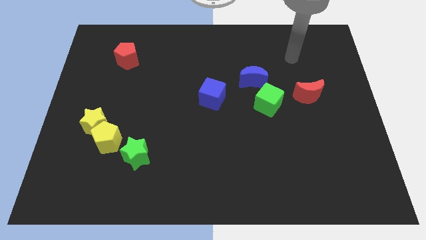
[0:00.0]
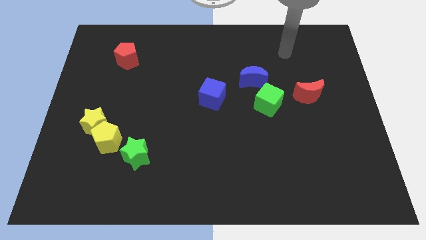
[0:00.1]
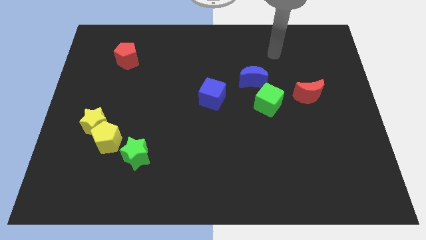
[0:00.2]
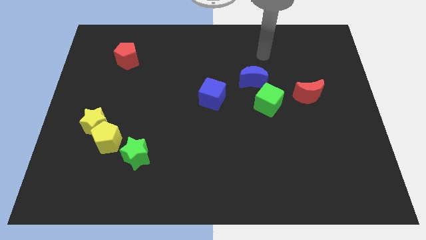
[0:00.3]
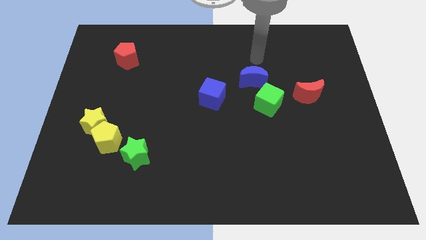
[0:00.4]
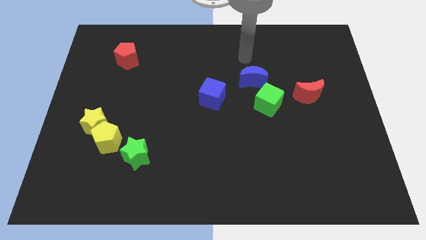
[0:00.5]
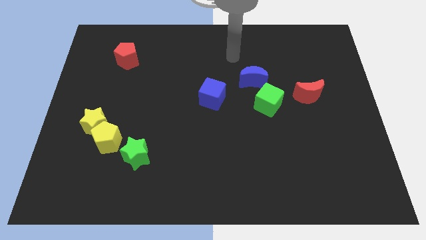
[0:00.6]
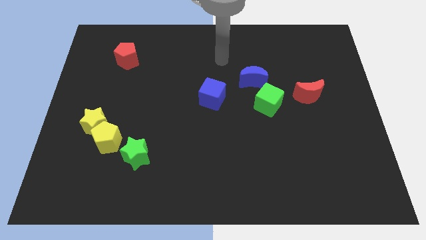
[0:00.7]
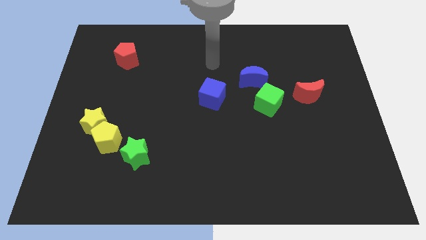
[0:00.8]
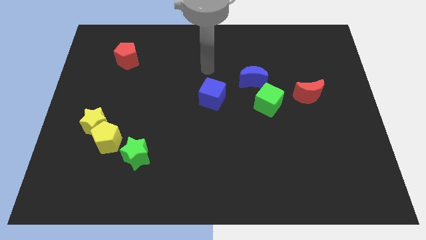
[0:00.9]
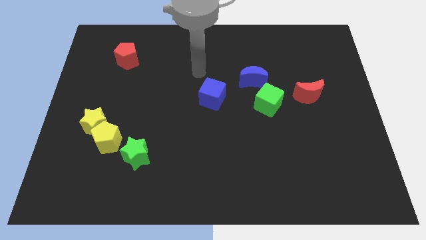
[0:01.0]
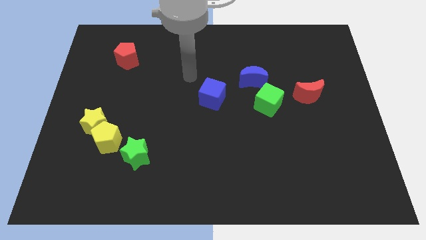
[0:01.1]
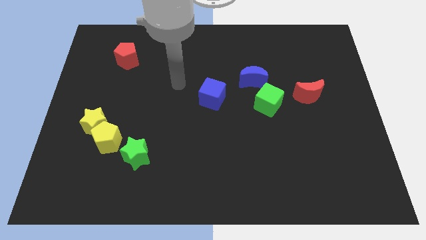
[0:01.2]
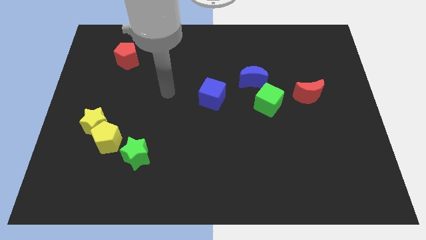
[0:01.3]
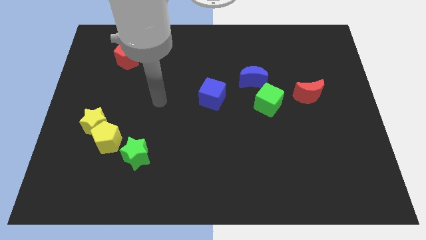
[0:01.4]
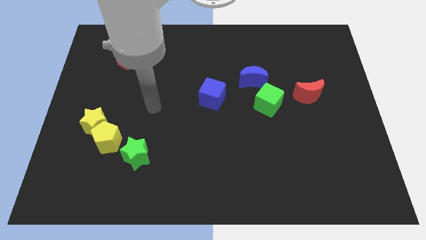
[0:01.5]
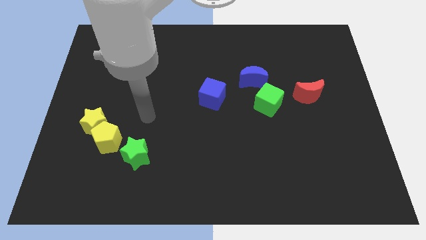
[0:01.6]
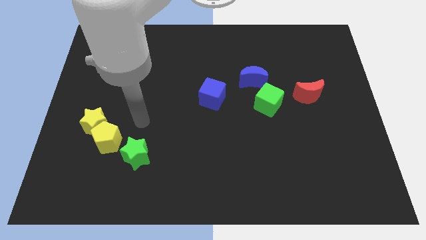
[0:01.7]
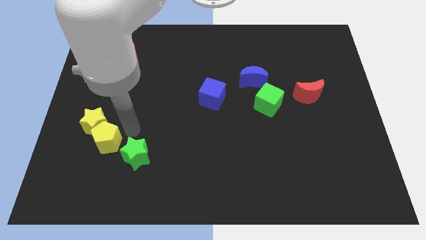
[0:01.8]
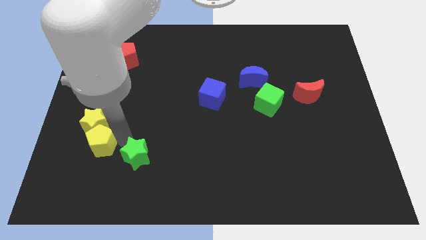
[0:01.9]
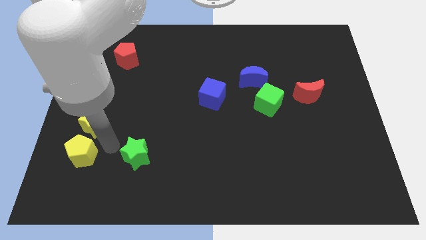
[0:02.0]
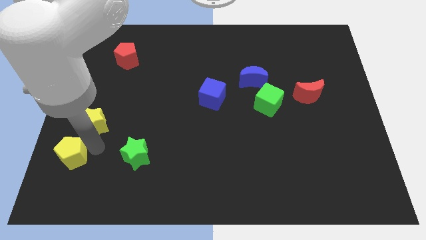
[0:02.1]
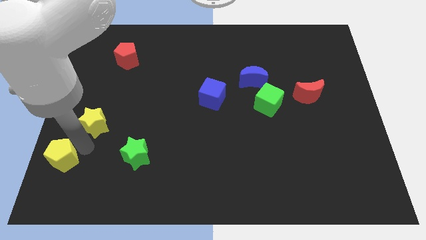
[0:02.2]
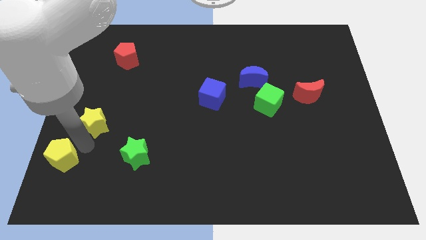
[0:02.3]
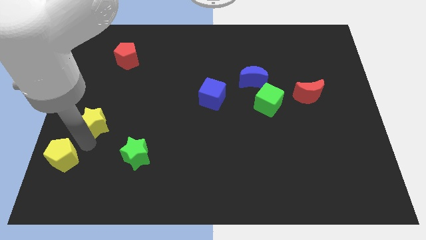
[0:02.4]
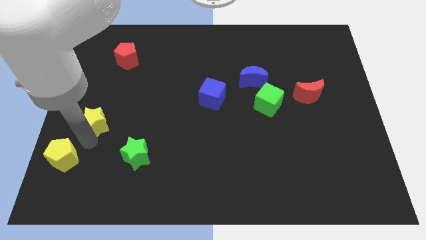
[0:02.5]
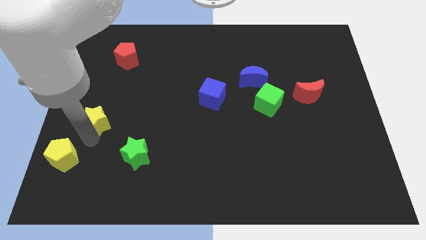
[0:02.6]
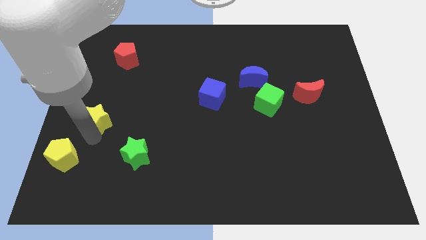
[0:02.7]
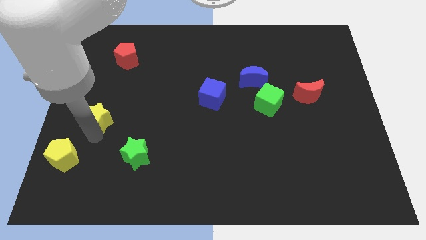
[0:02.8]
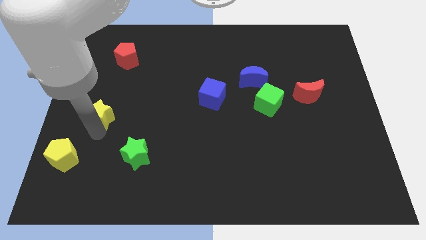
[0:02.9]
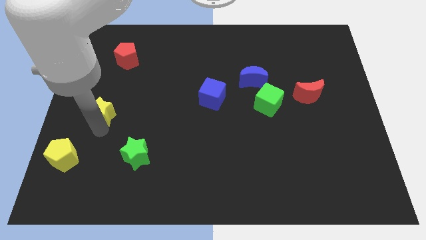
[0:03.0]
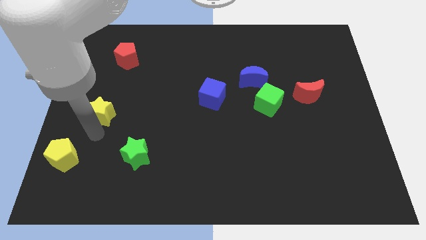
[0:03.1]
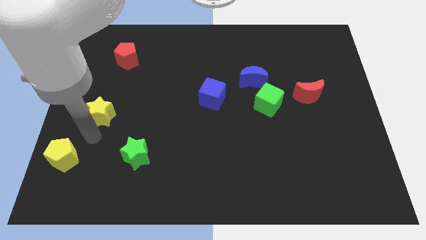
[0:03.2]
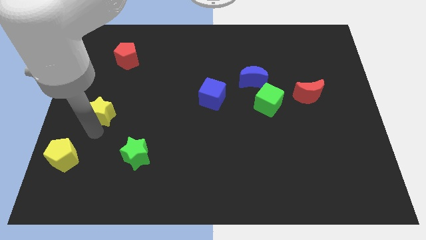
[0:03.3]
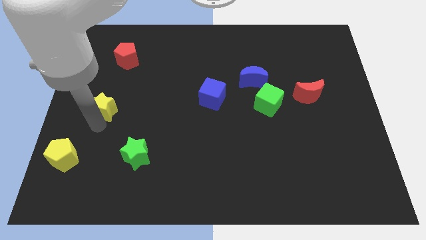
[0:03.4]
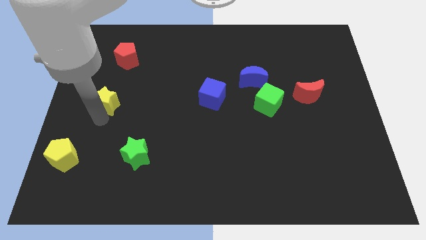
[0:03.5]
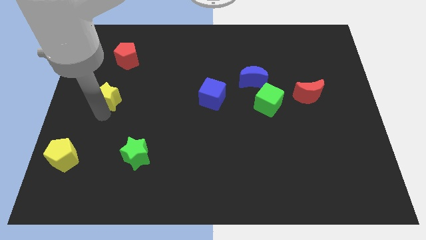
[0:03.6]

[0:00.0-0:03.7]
slightly move the yellow star up

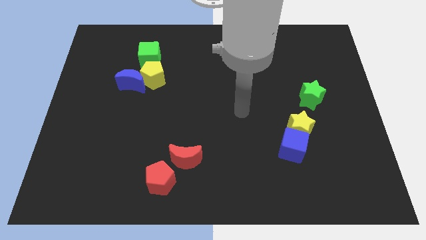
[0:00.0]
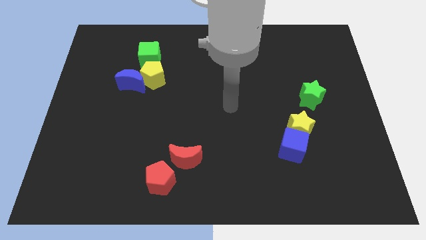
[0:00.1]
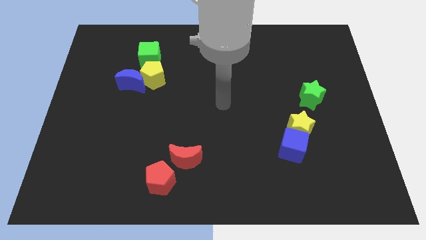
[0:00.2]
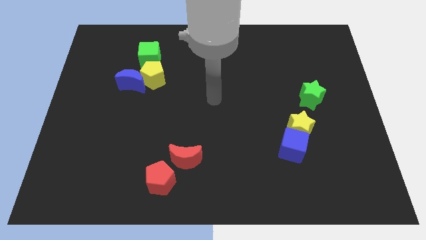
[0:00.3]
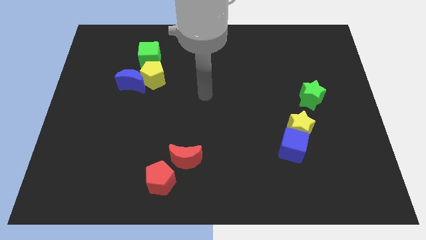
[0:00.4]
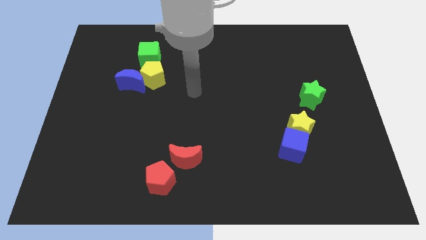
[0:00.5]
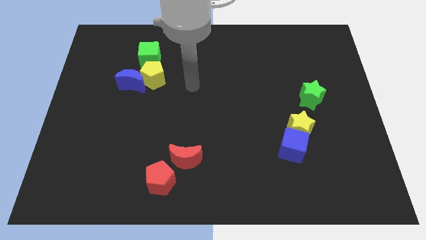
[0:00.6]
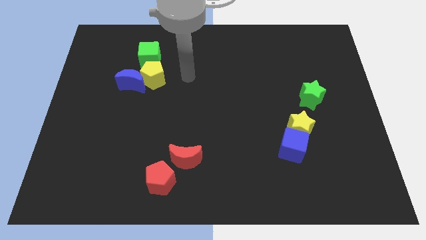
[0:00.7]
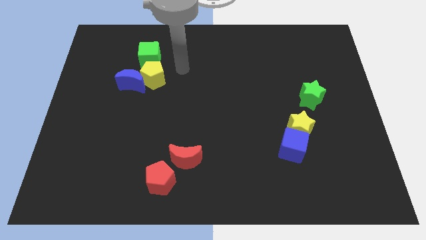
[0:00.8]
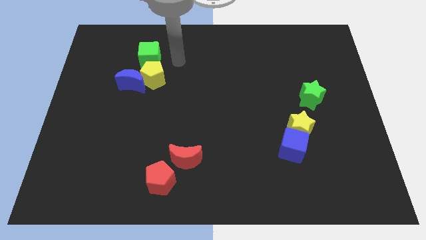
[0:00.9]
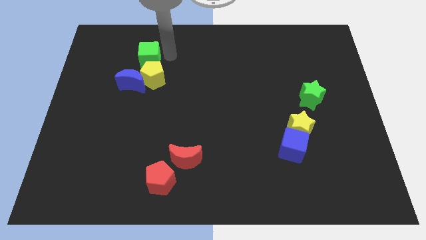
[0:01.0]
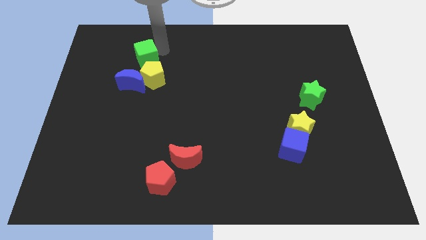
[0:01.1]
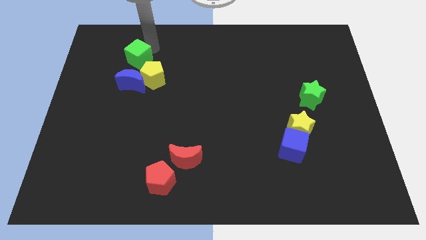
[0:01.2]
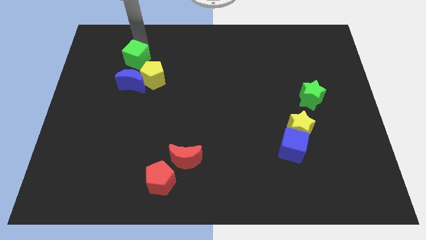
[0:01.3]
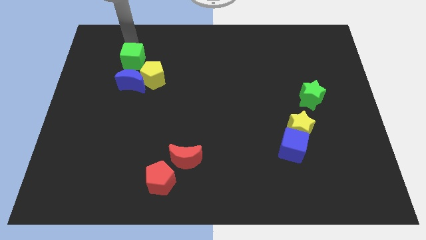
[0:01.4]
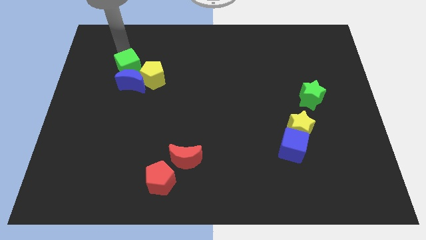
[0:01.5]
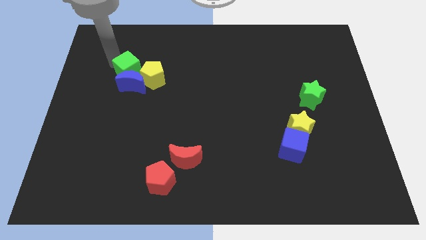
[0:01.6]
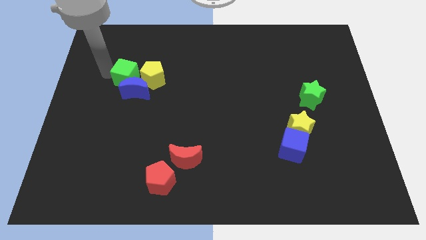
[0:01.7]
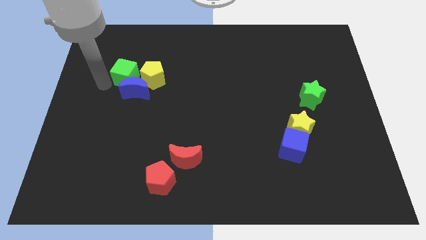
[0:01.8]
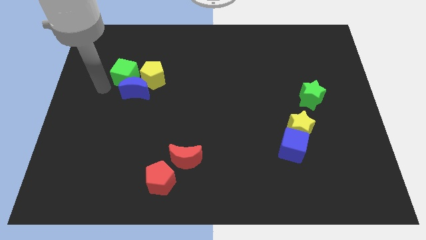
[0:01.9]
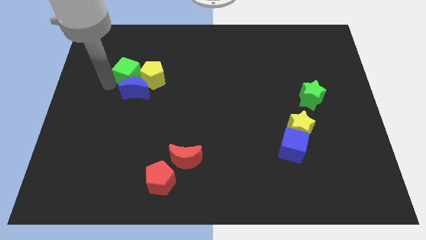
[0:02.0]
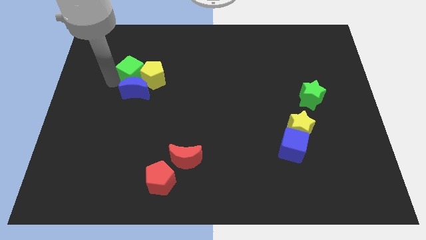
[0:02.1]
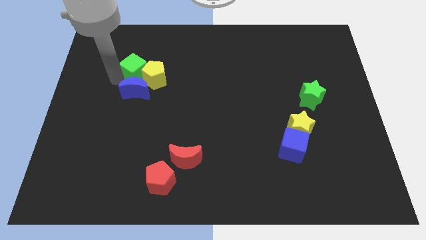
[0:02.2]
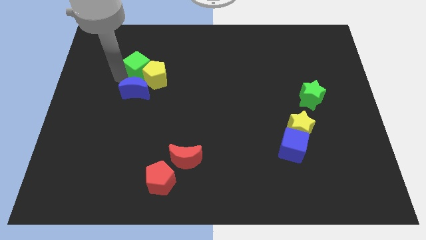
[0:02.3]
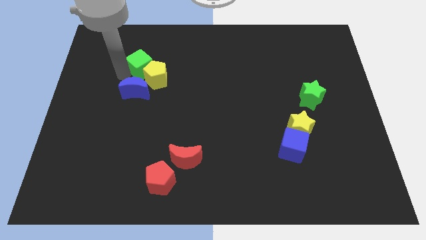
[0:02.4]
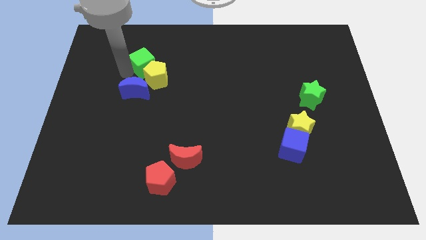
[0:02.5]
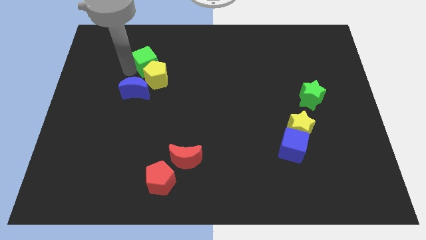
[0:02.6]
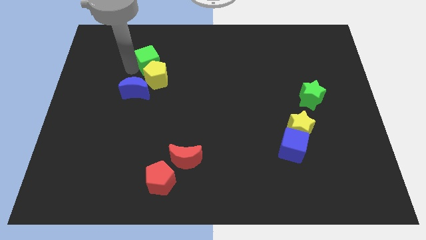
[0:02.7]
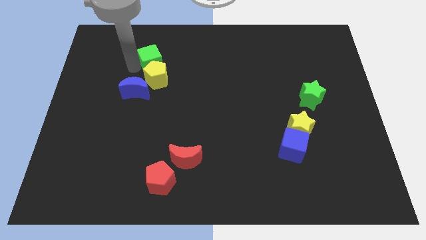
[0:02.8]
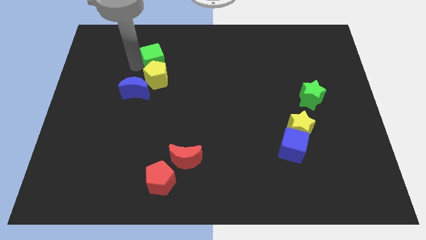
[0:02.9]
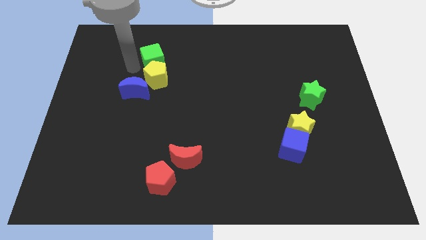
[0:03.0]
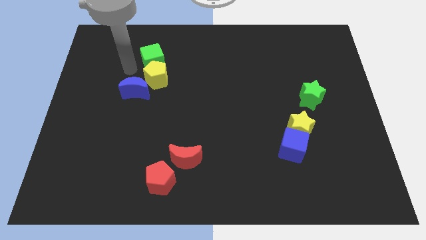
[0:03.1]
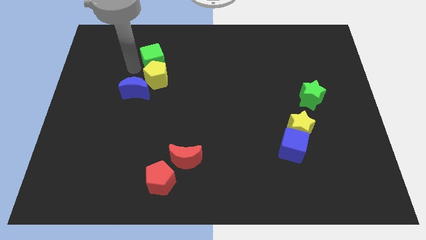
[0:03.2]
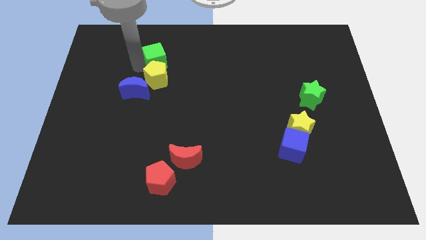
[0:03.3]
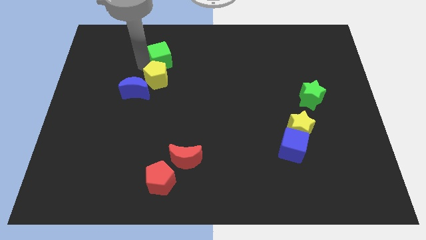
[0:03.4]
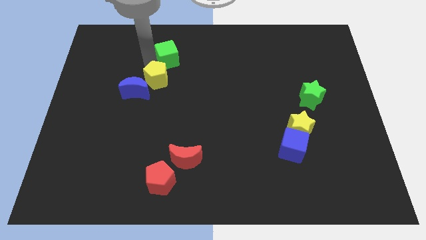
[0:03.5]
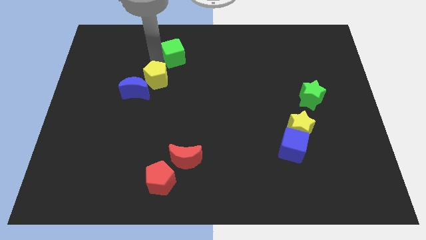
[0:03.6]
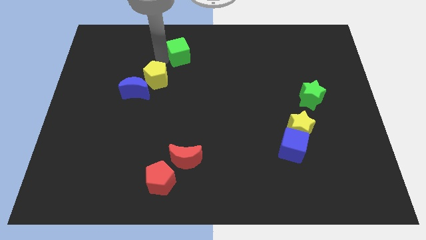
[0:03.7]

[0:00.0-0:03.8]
slightly move the green cube to the right

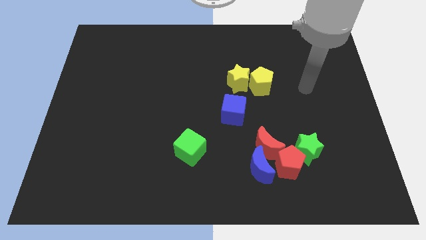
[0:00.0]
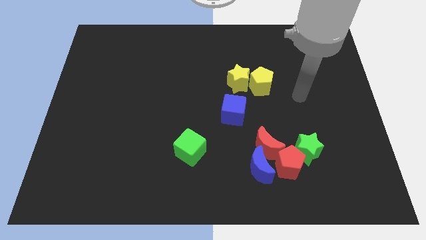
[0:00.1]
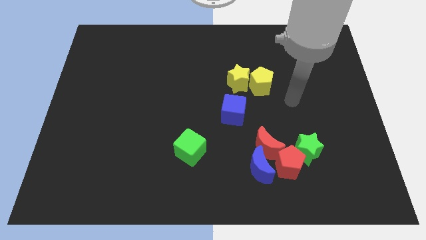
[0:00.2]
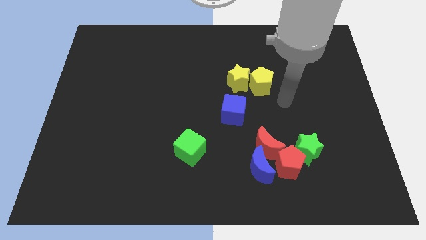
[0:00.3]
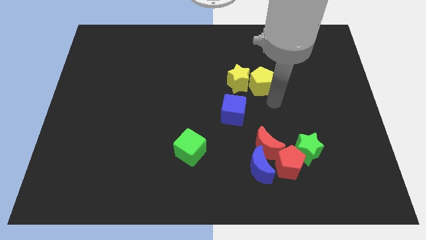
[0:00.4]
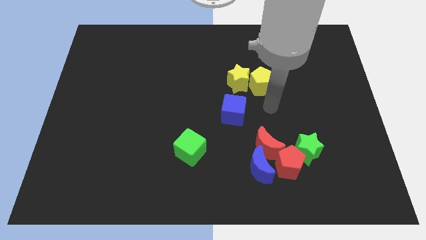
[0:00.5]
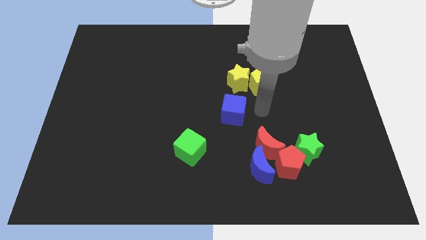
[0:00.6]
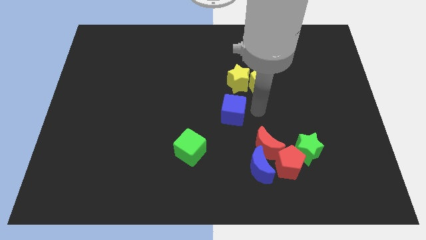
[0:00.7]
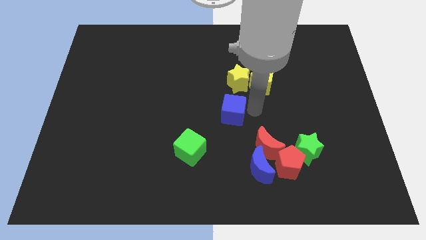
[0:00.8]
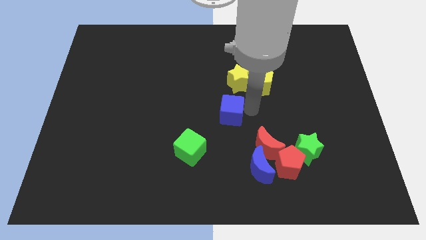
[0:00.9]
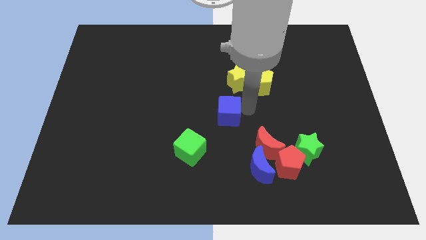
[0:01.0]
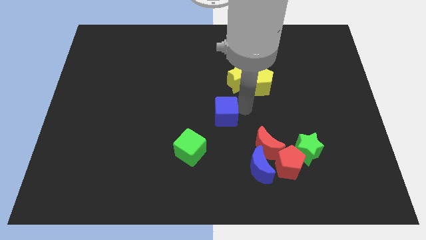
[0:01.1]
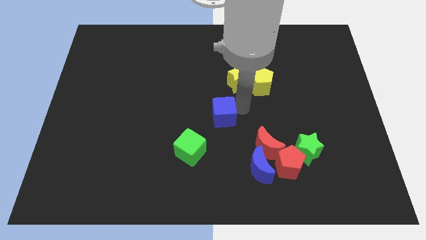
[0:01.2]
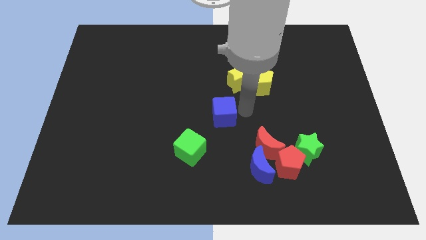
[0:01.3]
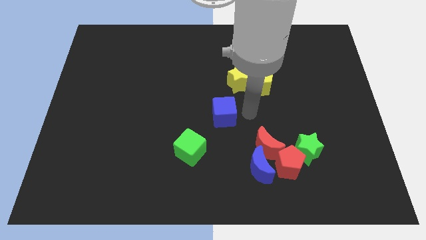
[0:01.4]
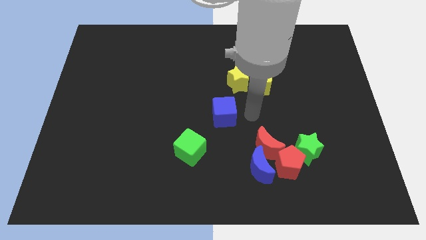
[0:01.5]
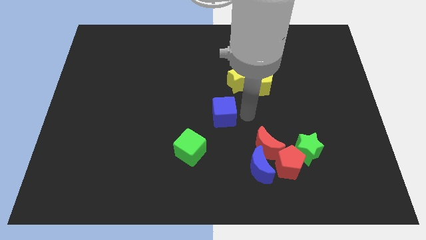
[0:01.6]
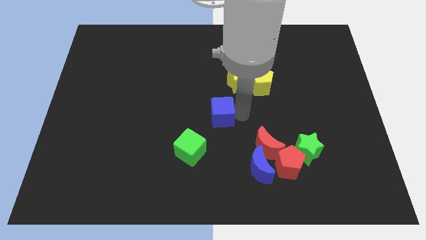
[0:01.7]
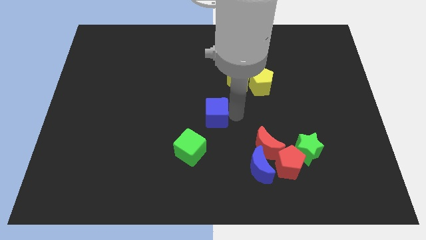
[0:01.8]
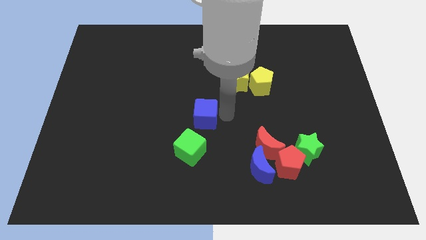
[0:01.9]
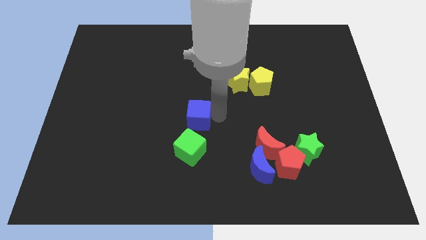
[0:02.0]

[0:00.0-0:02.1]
slightly slide the blue cube left
